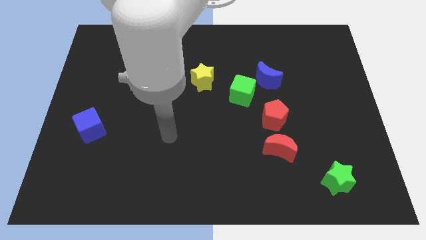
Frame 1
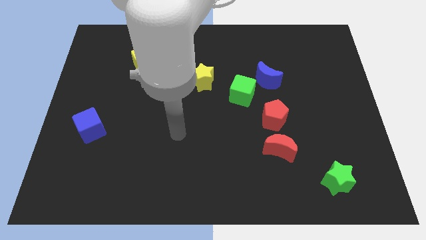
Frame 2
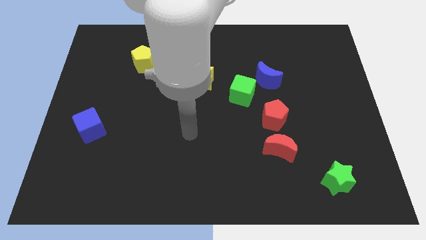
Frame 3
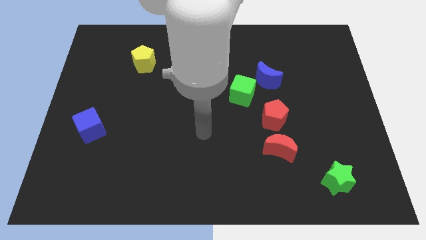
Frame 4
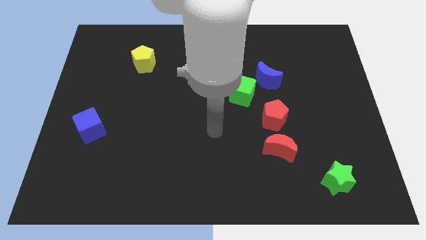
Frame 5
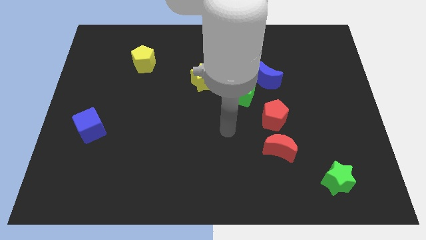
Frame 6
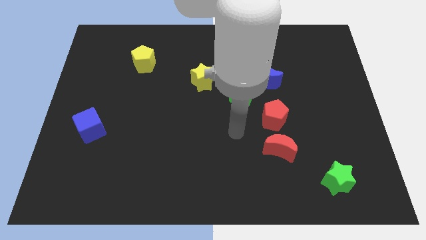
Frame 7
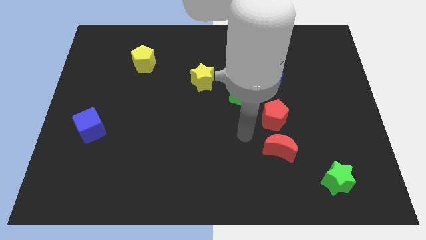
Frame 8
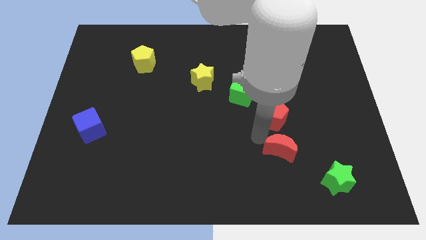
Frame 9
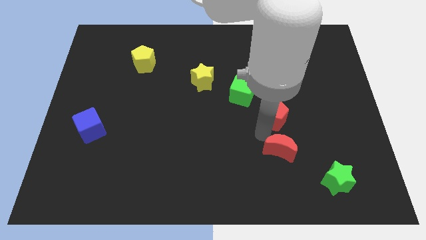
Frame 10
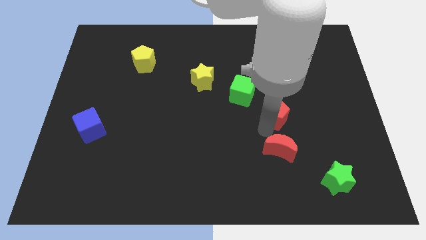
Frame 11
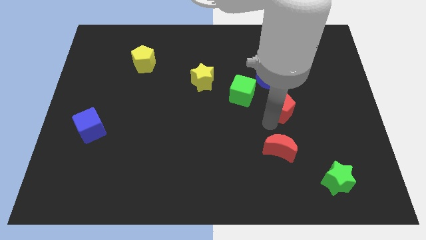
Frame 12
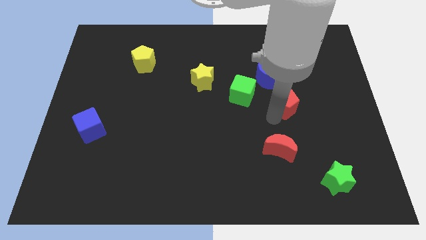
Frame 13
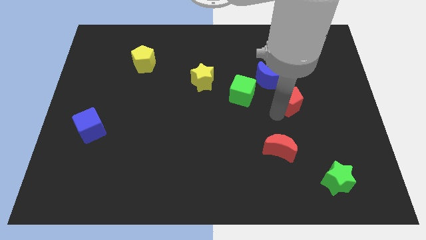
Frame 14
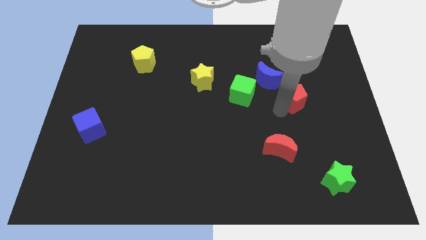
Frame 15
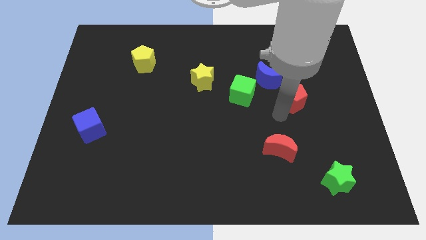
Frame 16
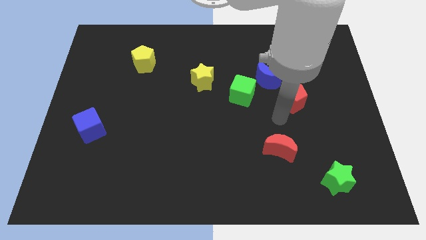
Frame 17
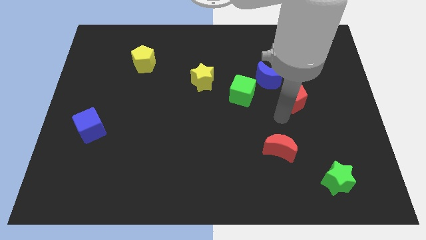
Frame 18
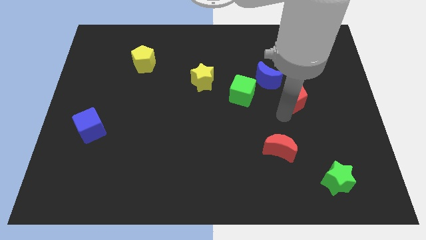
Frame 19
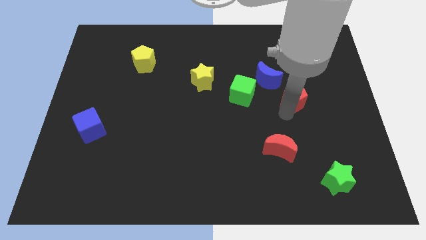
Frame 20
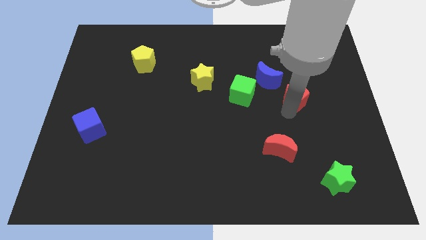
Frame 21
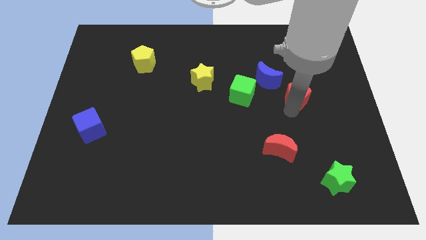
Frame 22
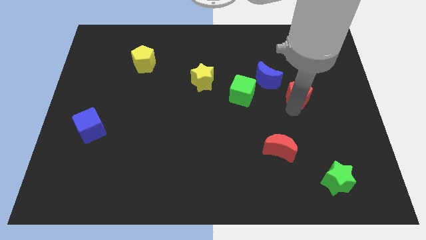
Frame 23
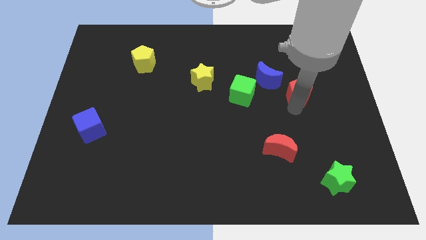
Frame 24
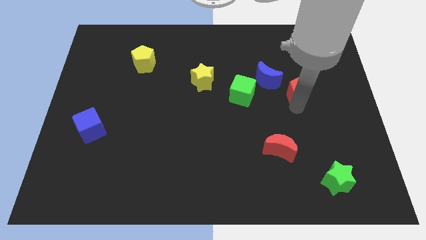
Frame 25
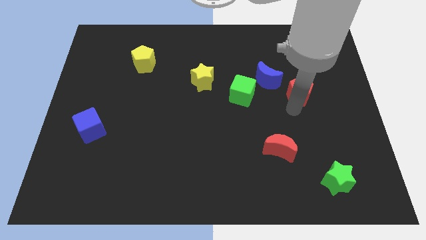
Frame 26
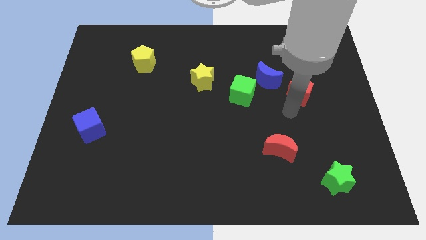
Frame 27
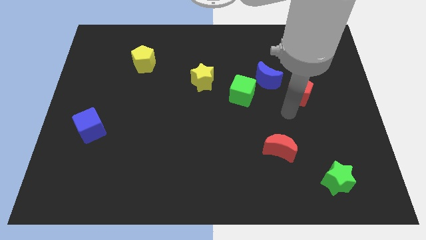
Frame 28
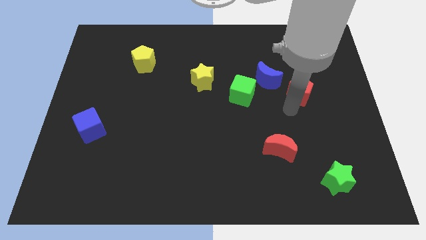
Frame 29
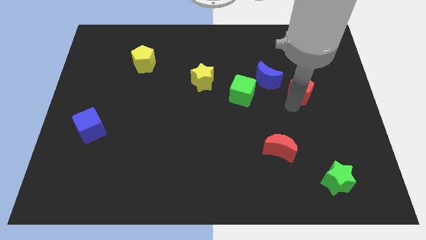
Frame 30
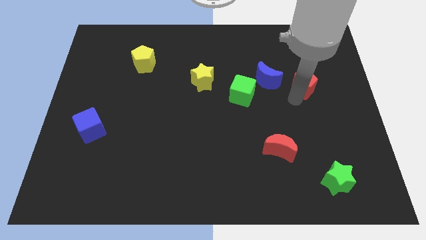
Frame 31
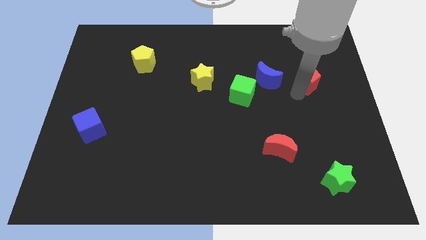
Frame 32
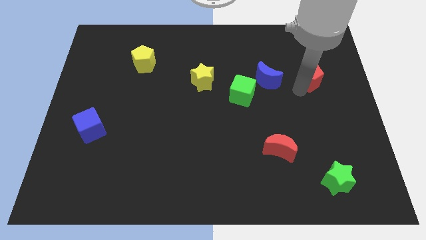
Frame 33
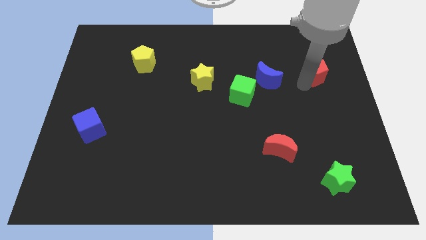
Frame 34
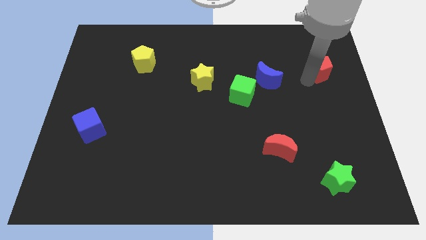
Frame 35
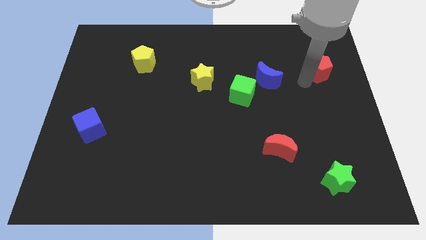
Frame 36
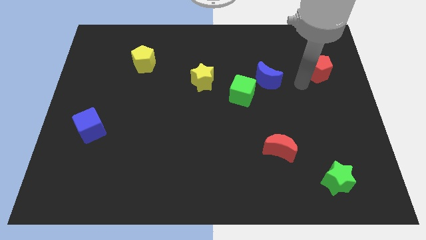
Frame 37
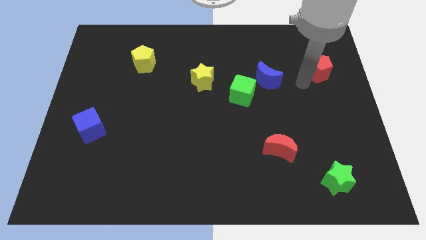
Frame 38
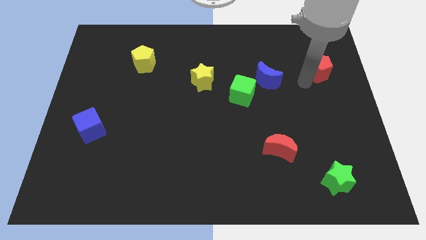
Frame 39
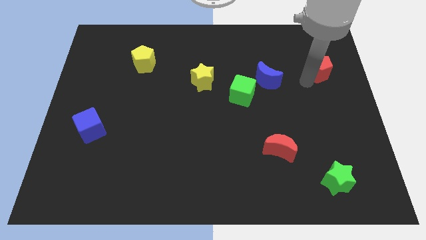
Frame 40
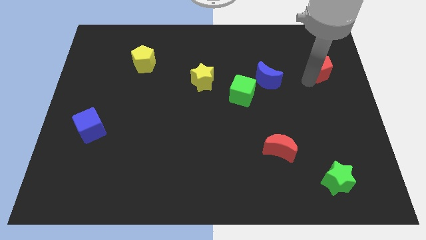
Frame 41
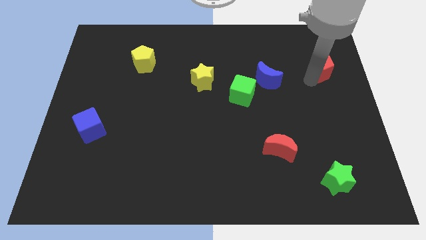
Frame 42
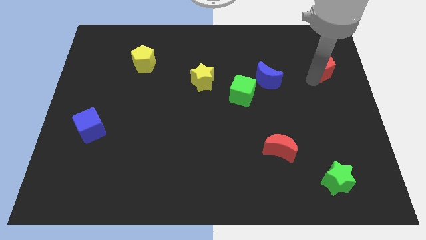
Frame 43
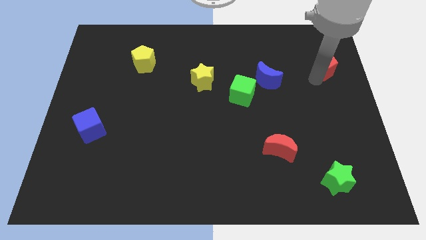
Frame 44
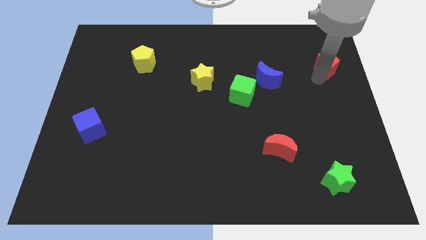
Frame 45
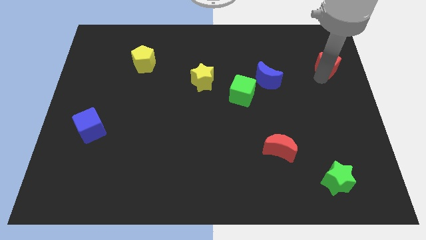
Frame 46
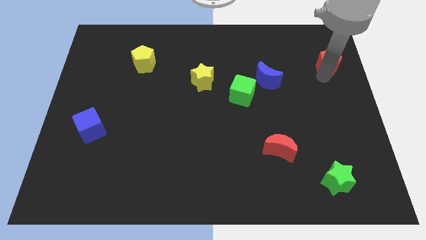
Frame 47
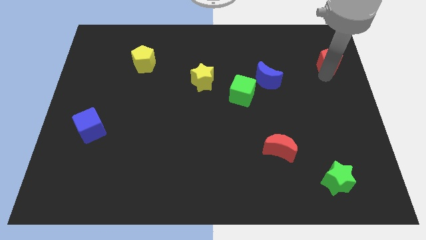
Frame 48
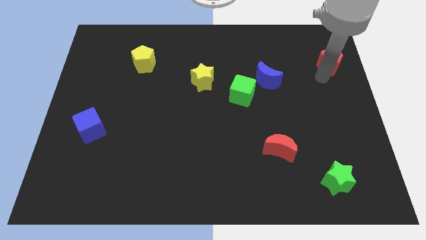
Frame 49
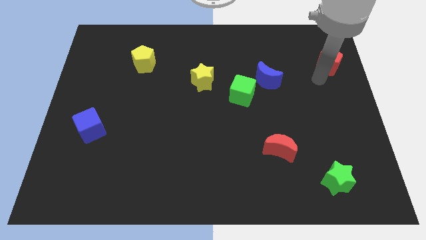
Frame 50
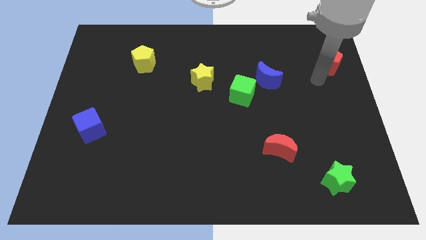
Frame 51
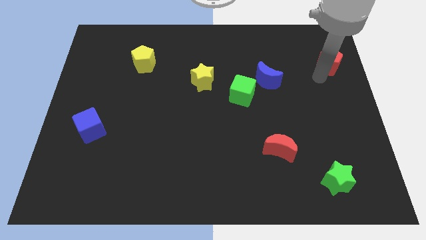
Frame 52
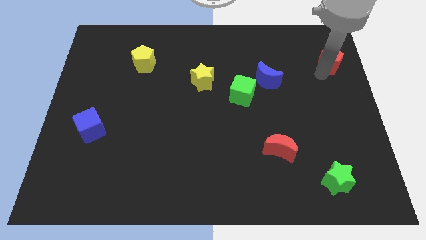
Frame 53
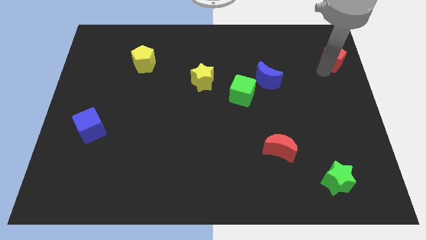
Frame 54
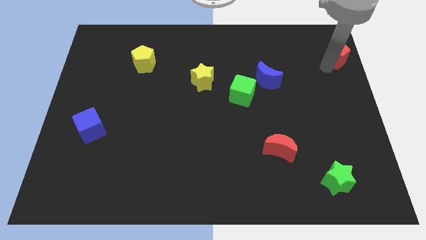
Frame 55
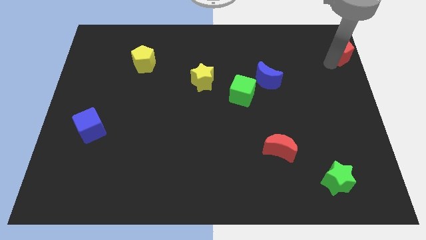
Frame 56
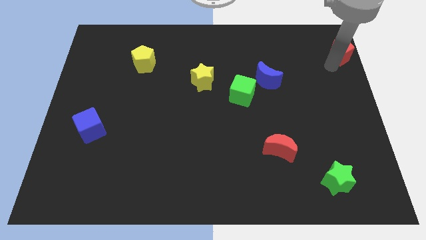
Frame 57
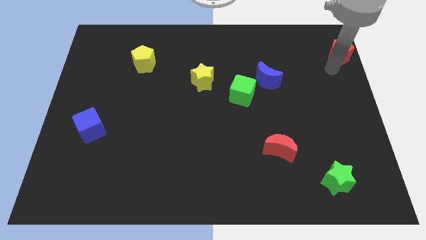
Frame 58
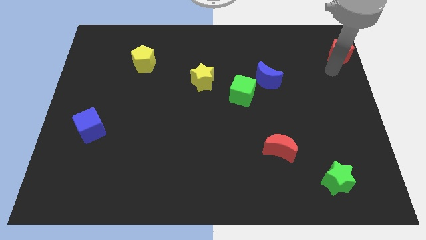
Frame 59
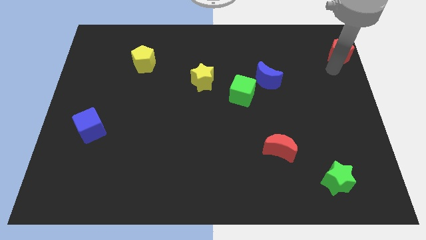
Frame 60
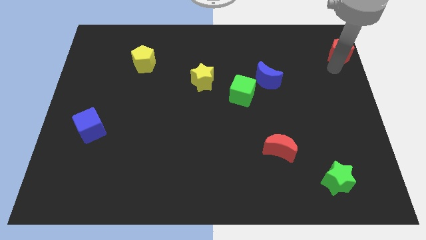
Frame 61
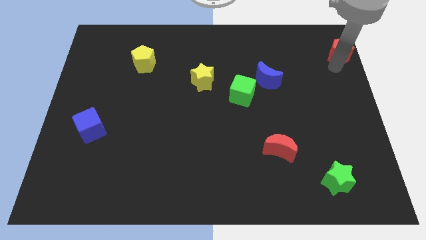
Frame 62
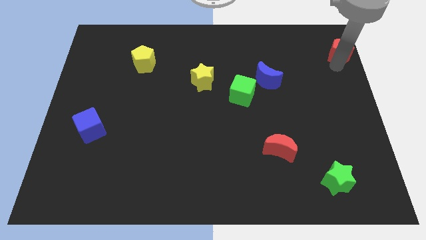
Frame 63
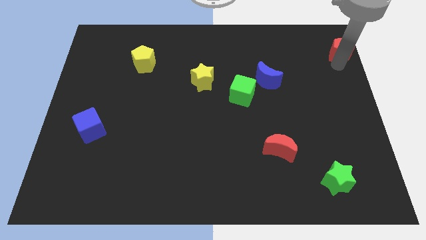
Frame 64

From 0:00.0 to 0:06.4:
move the red pentagon to the upper right corner
